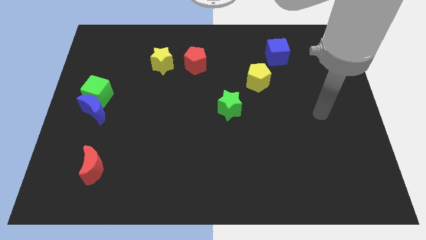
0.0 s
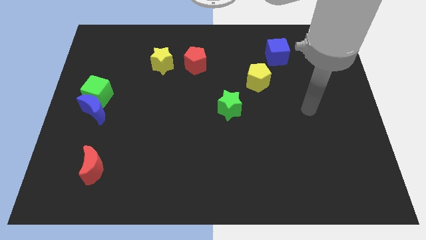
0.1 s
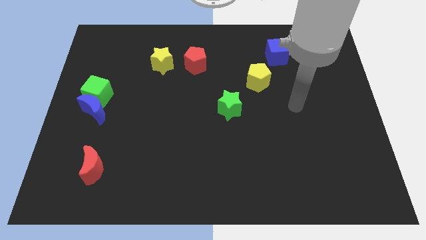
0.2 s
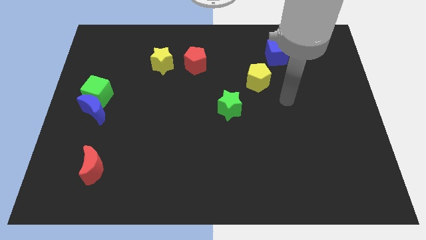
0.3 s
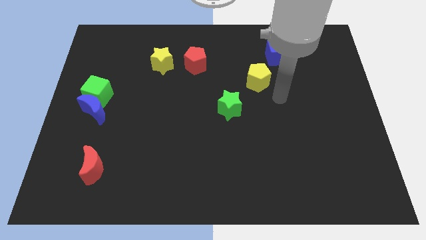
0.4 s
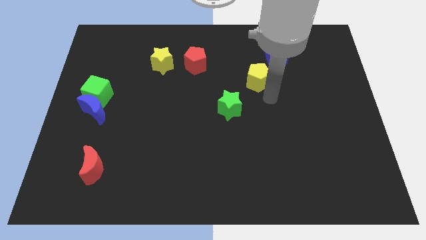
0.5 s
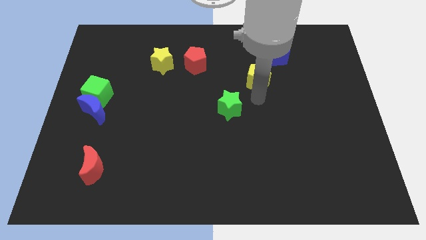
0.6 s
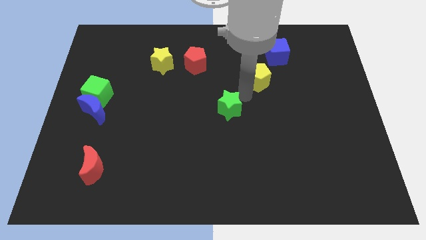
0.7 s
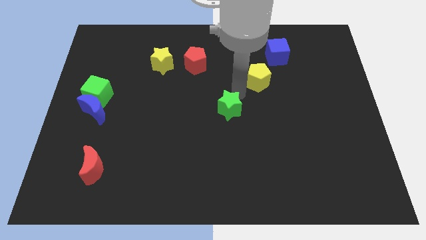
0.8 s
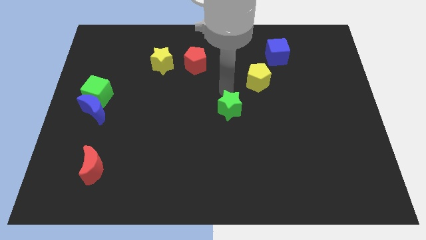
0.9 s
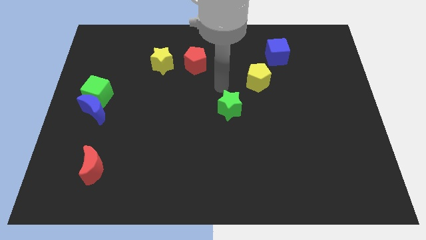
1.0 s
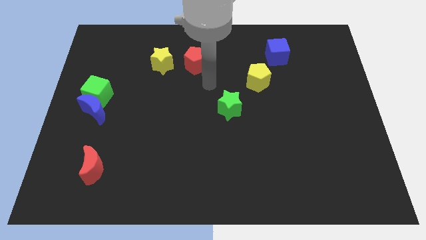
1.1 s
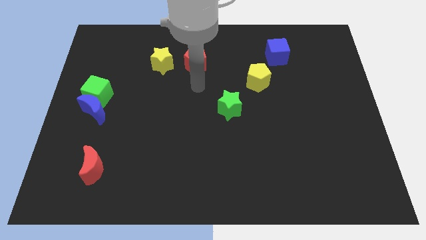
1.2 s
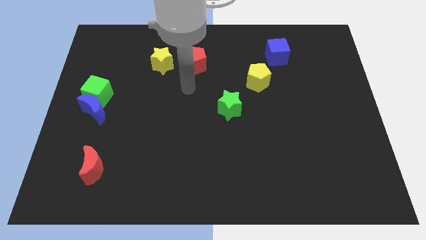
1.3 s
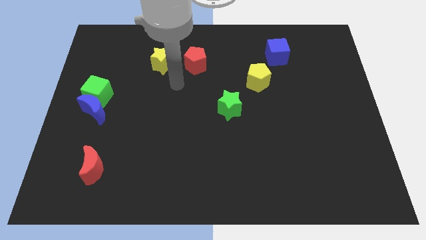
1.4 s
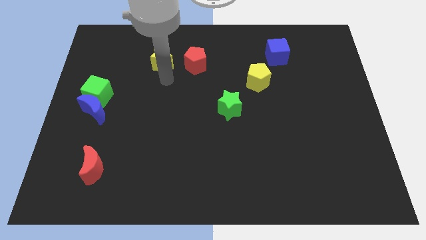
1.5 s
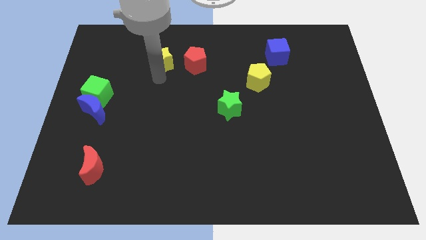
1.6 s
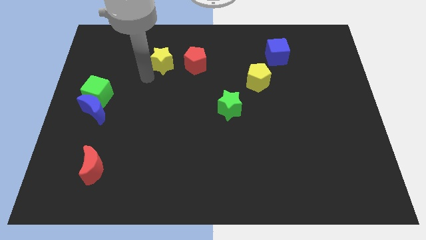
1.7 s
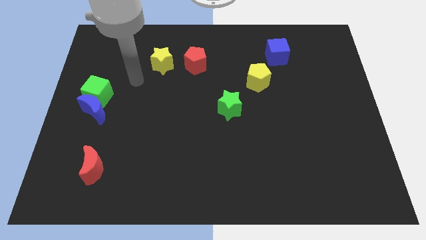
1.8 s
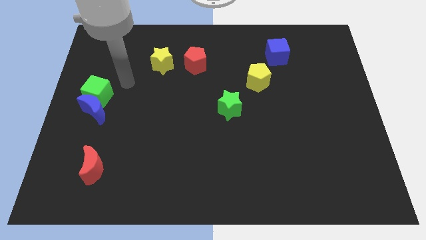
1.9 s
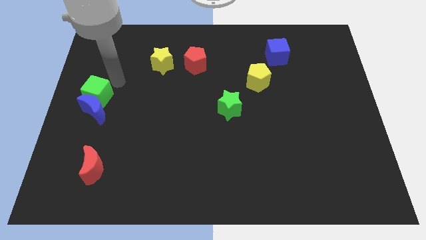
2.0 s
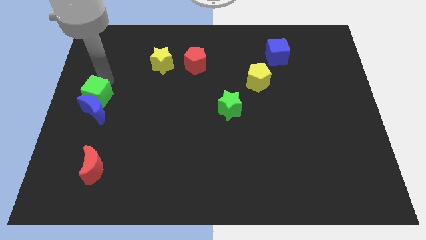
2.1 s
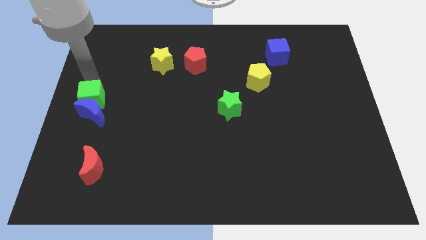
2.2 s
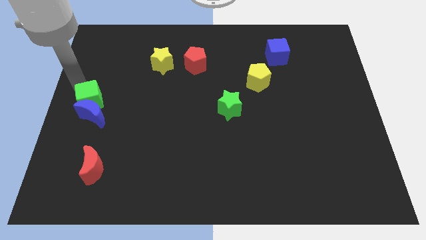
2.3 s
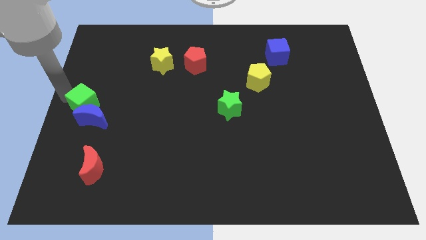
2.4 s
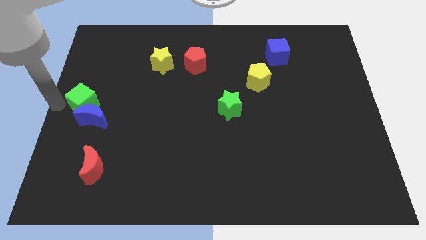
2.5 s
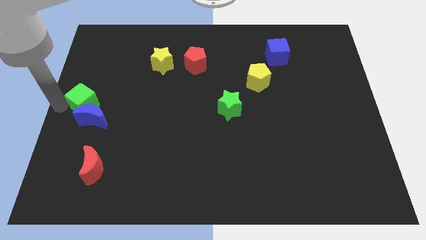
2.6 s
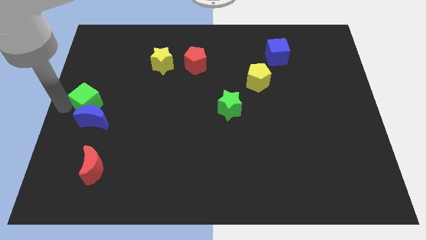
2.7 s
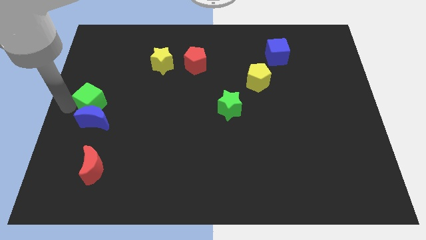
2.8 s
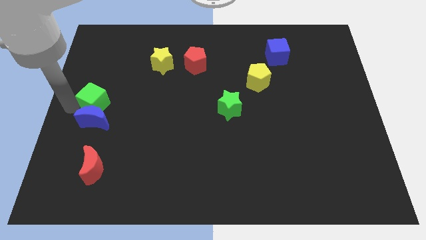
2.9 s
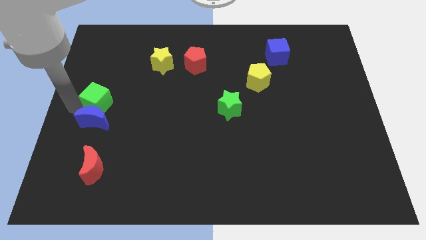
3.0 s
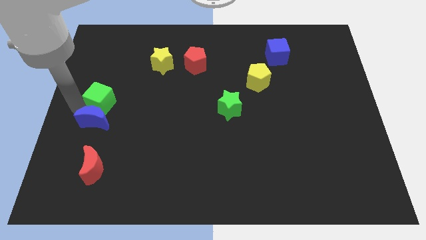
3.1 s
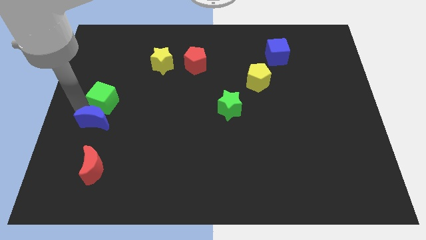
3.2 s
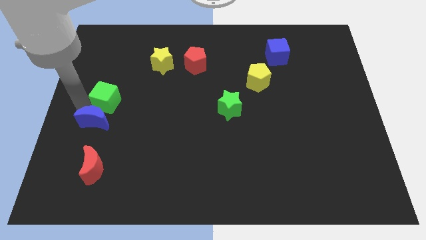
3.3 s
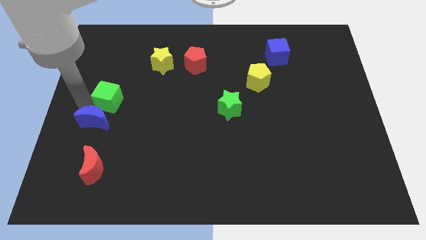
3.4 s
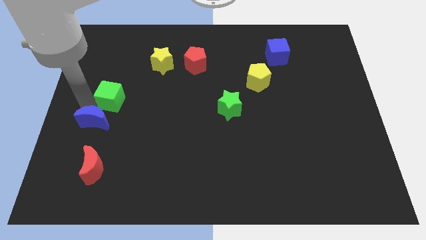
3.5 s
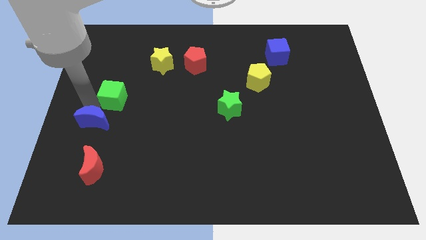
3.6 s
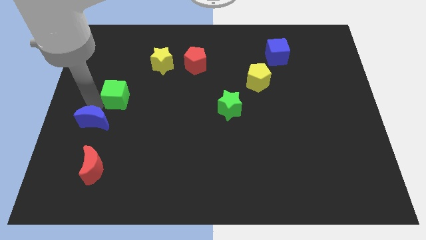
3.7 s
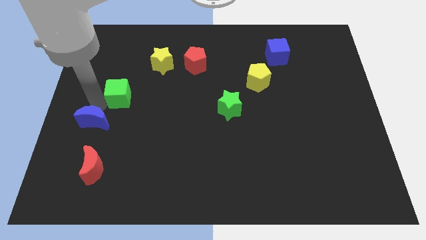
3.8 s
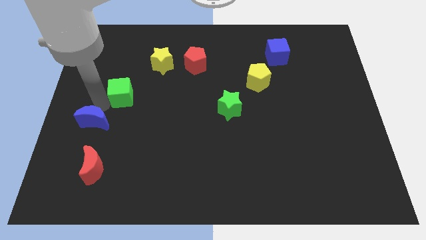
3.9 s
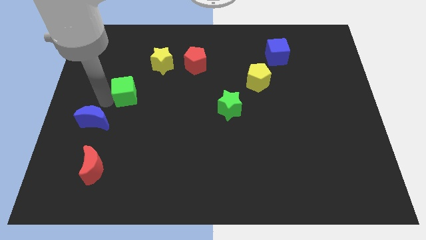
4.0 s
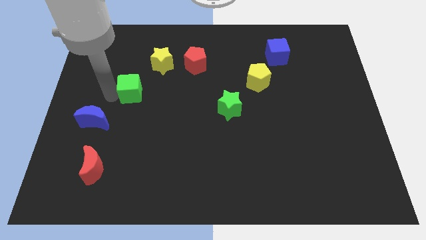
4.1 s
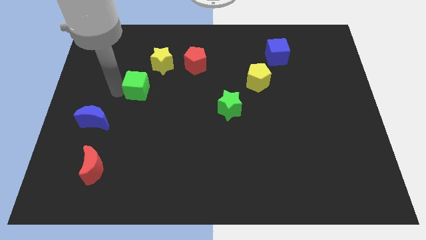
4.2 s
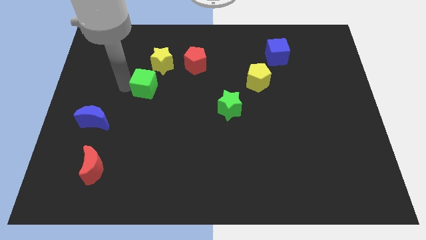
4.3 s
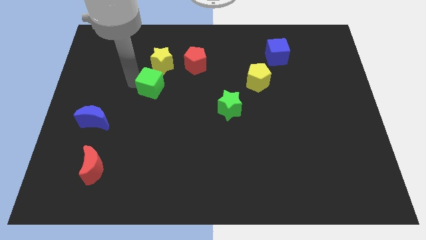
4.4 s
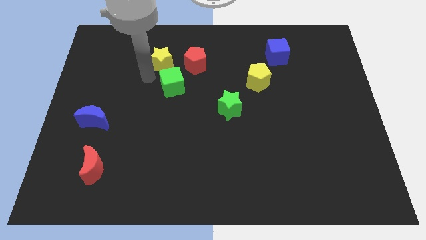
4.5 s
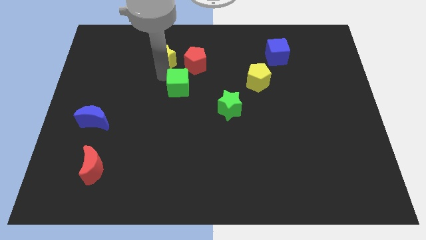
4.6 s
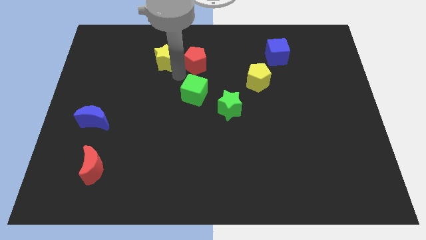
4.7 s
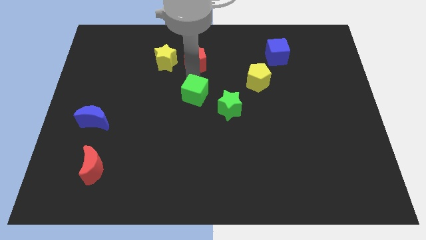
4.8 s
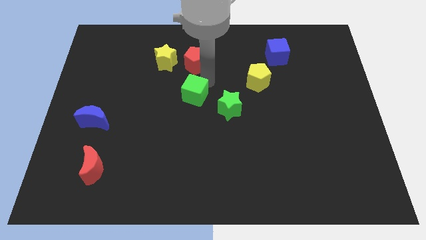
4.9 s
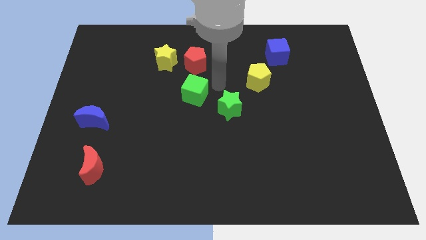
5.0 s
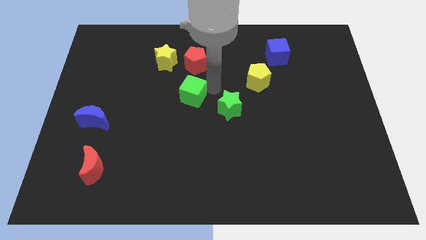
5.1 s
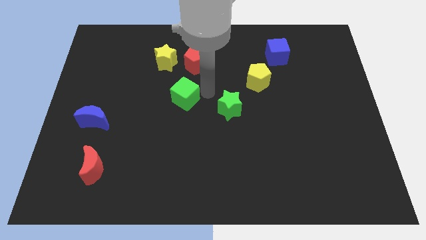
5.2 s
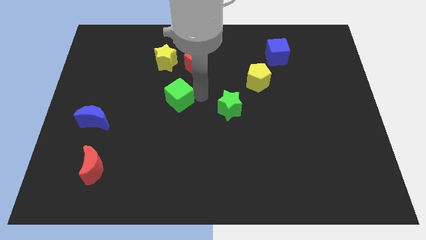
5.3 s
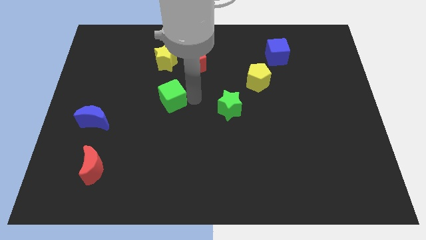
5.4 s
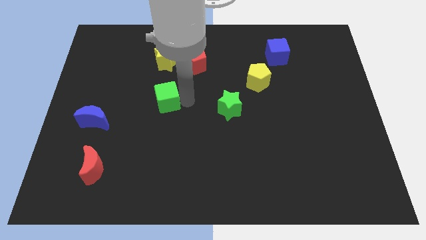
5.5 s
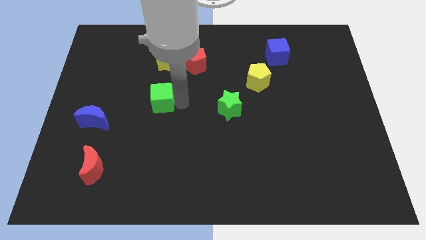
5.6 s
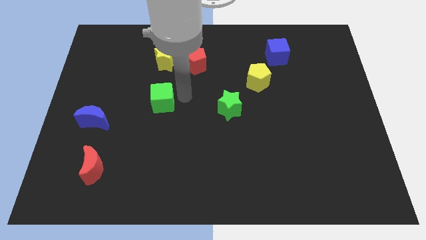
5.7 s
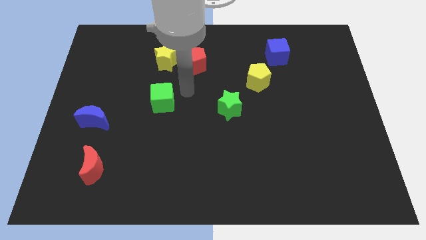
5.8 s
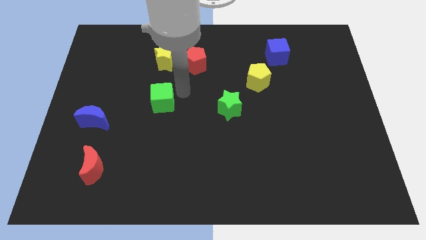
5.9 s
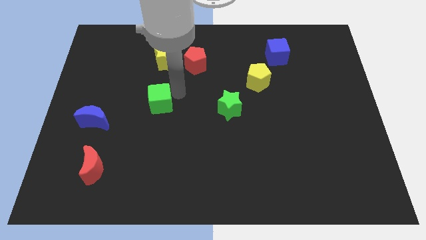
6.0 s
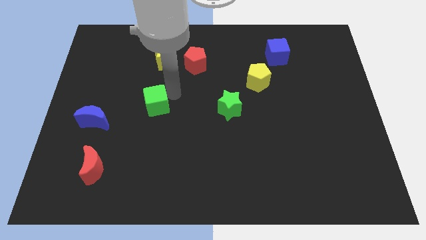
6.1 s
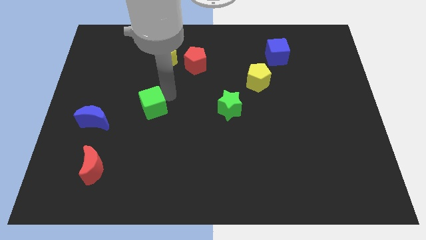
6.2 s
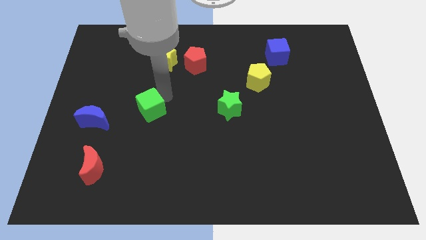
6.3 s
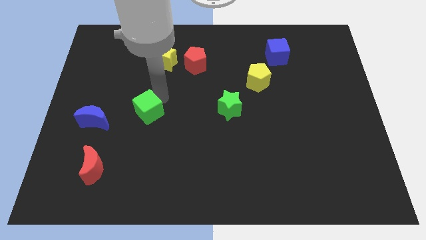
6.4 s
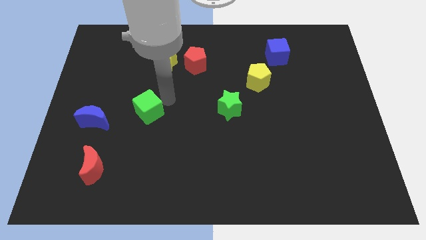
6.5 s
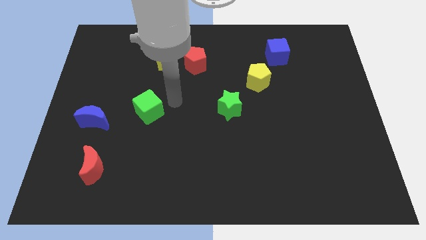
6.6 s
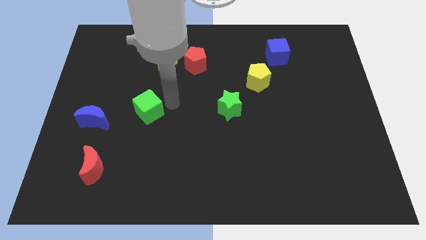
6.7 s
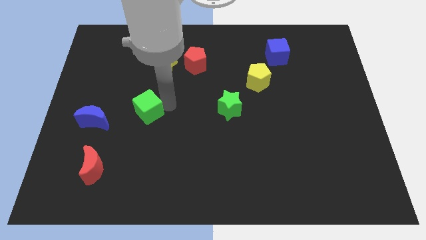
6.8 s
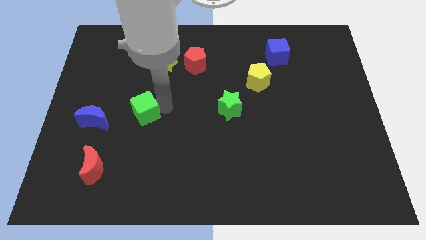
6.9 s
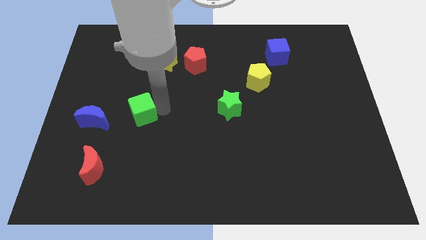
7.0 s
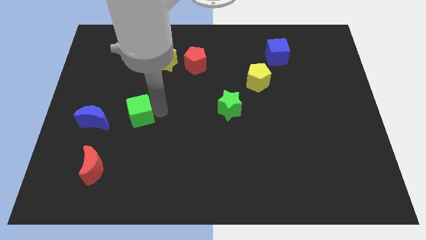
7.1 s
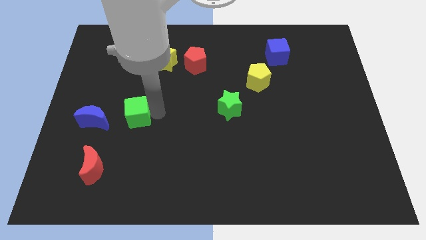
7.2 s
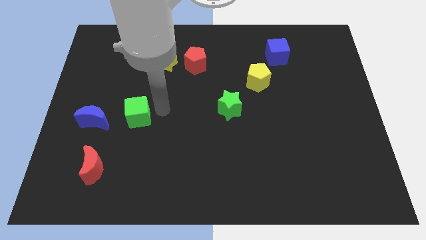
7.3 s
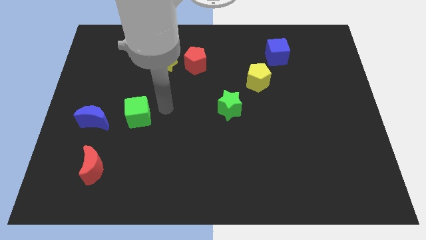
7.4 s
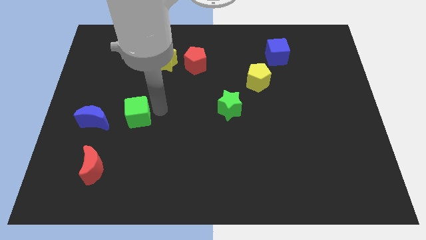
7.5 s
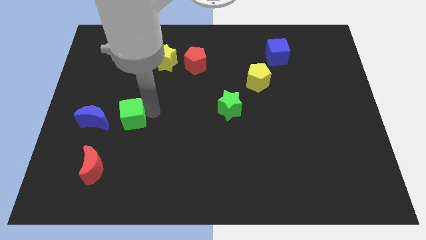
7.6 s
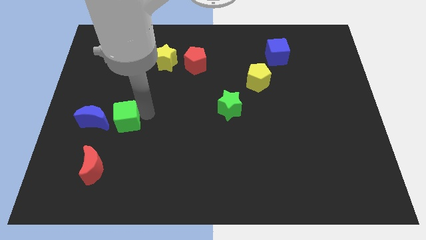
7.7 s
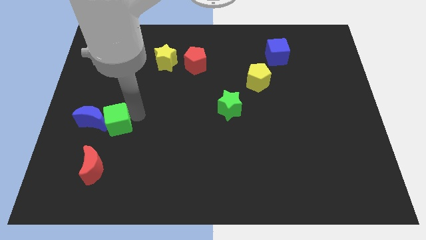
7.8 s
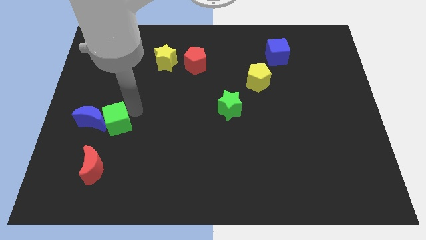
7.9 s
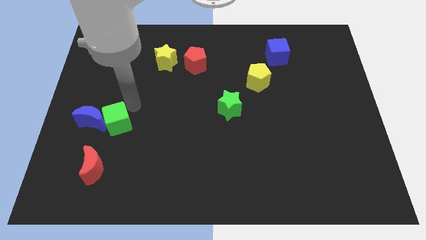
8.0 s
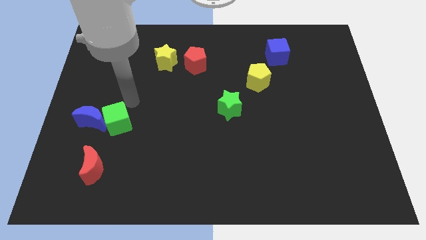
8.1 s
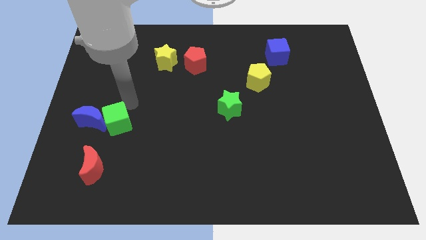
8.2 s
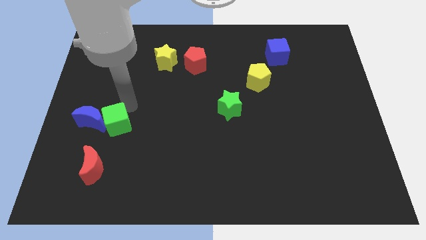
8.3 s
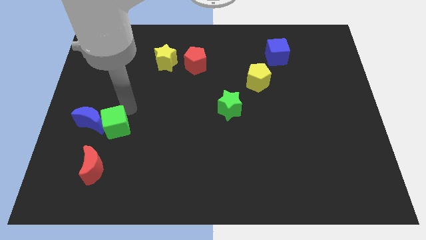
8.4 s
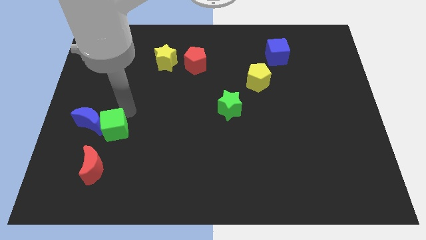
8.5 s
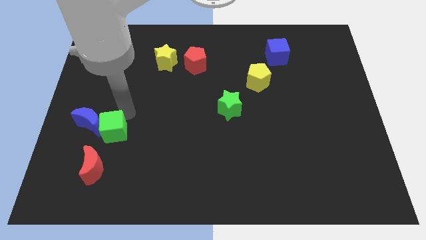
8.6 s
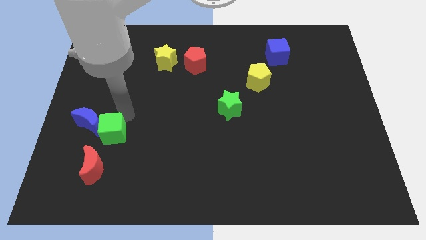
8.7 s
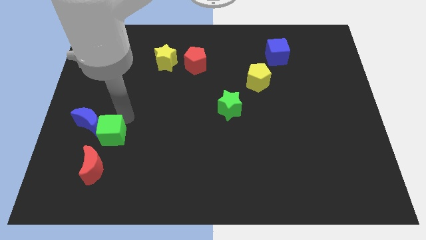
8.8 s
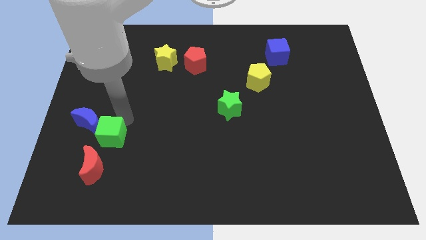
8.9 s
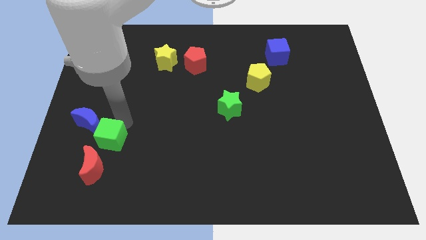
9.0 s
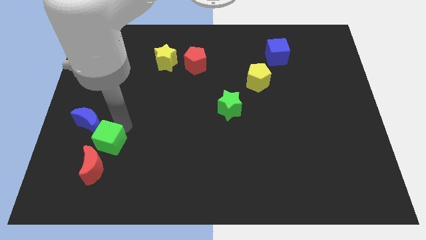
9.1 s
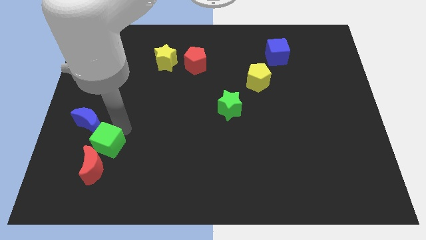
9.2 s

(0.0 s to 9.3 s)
move the green cube towards the red moon
